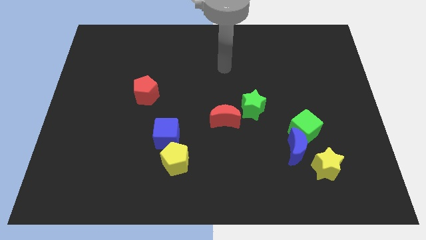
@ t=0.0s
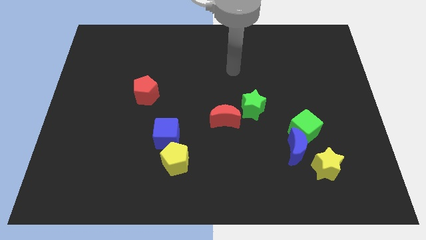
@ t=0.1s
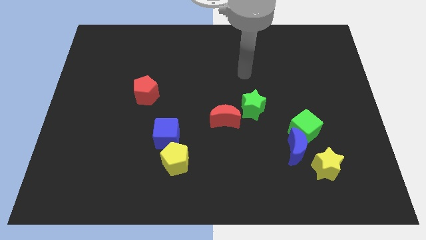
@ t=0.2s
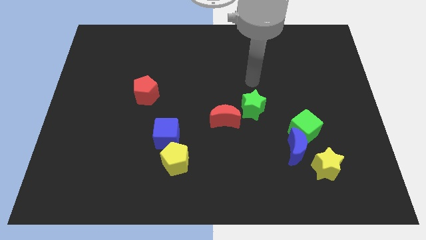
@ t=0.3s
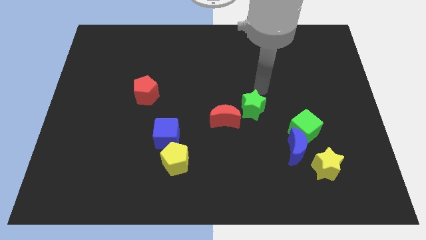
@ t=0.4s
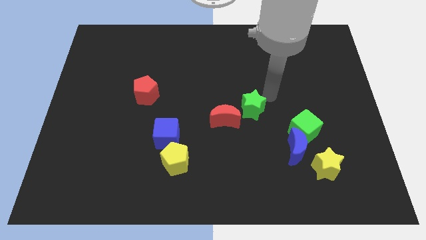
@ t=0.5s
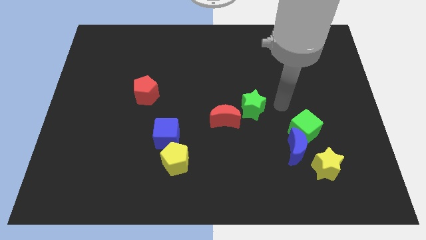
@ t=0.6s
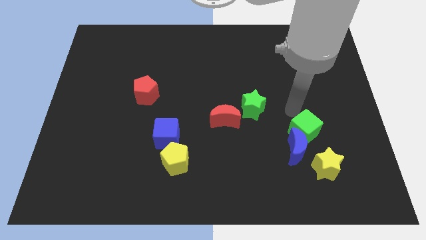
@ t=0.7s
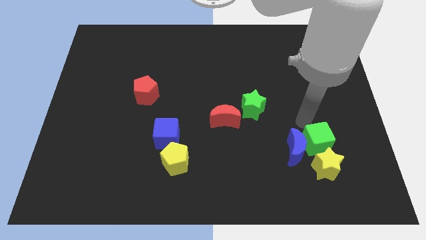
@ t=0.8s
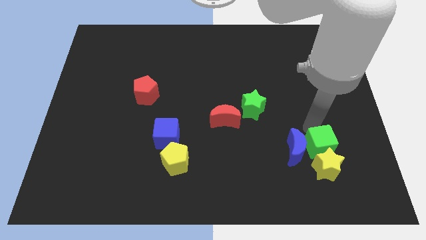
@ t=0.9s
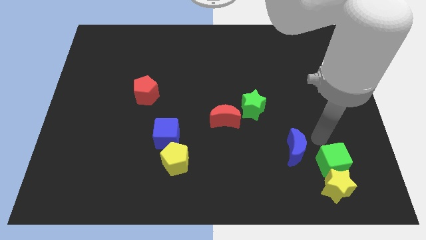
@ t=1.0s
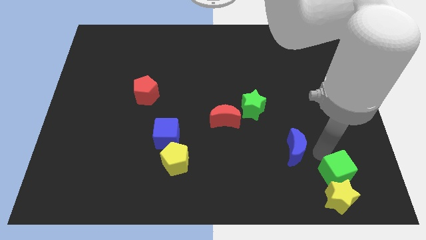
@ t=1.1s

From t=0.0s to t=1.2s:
pull the blue moon apart from the green cube and yellow star

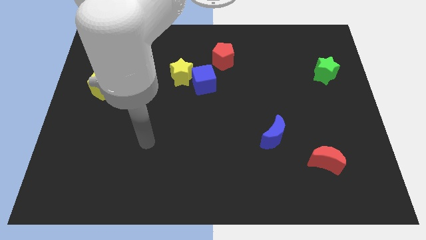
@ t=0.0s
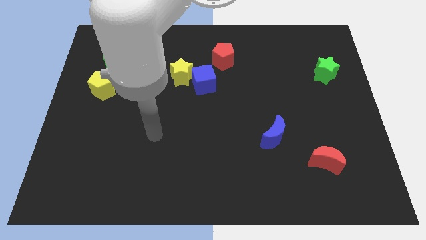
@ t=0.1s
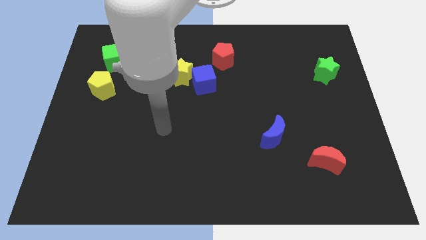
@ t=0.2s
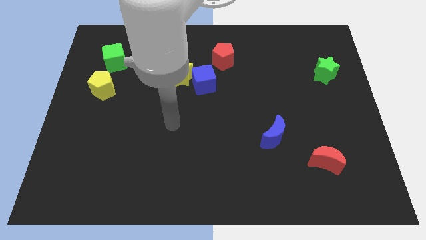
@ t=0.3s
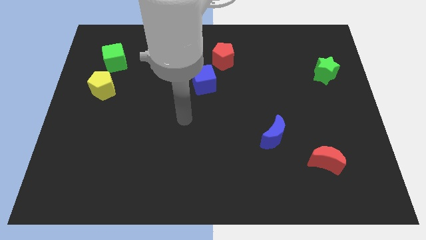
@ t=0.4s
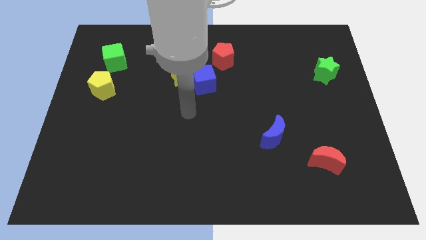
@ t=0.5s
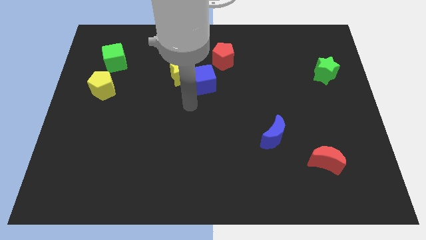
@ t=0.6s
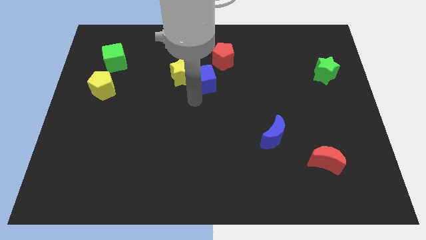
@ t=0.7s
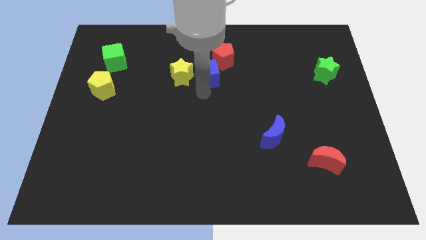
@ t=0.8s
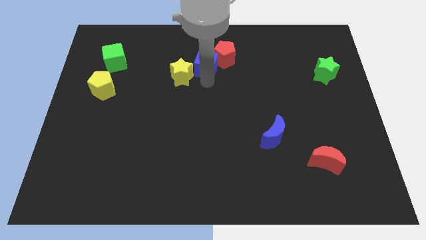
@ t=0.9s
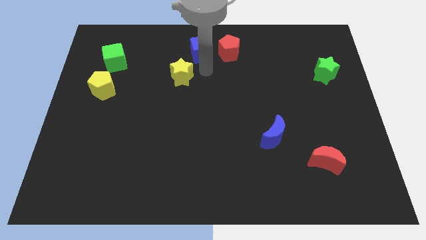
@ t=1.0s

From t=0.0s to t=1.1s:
move the yellow star away from the blue cube

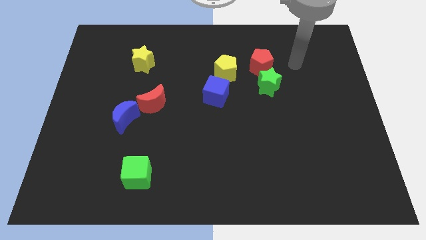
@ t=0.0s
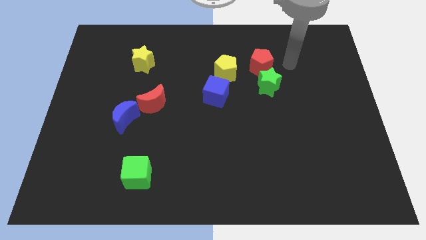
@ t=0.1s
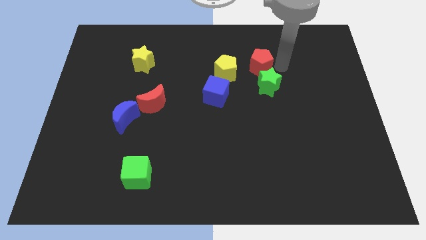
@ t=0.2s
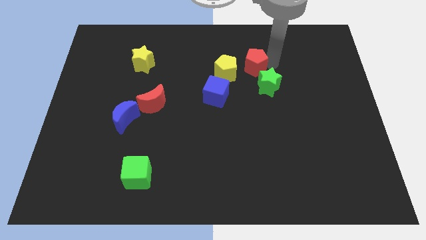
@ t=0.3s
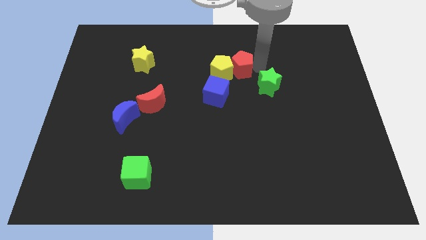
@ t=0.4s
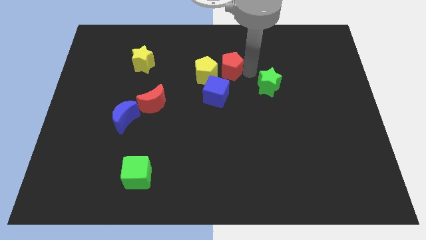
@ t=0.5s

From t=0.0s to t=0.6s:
separate the green star from the red pentagon

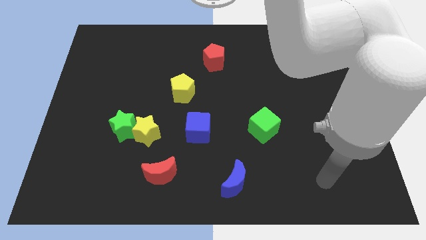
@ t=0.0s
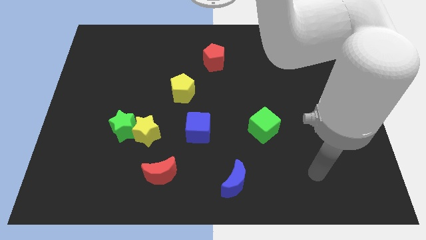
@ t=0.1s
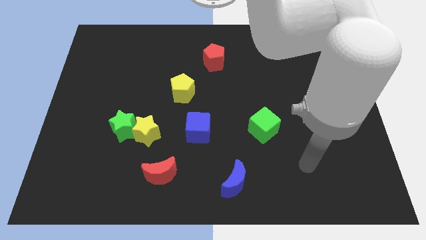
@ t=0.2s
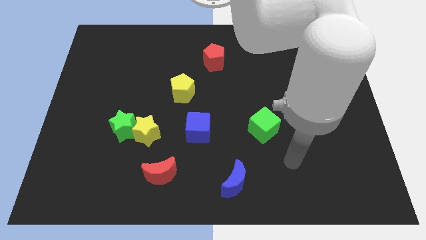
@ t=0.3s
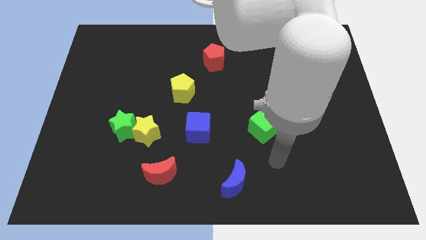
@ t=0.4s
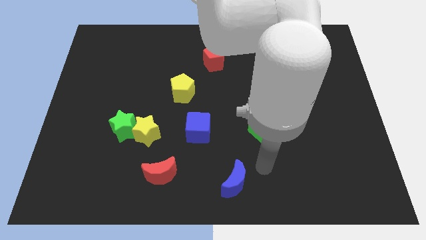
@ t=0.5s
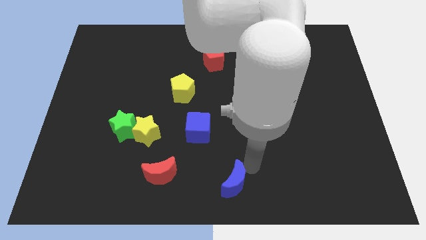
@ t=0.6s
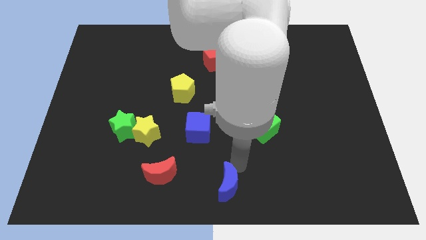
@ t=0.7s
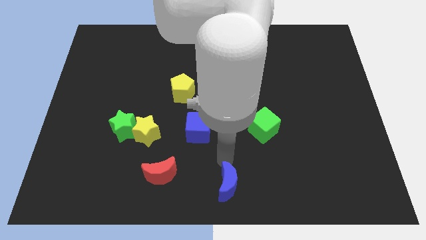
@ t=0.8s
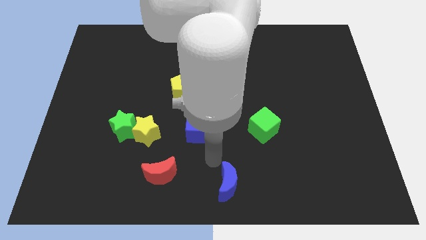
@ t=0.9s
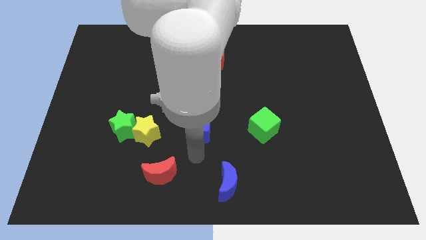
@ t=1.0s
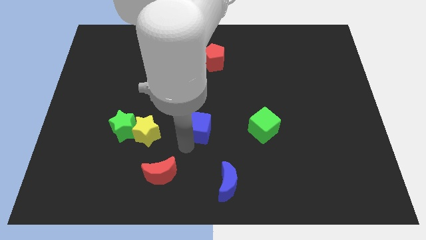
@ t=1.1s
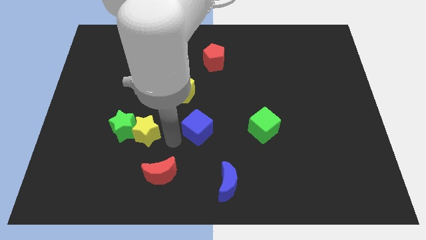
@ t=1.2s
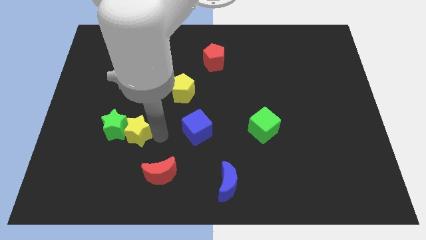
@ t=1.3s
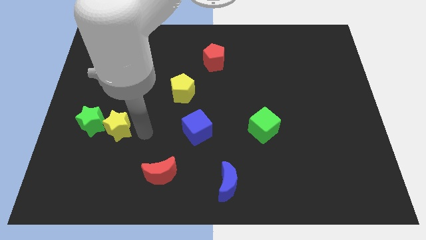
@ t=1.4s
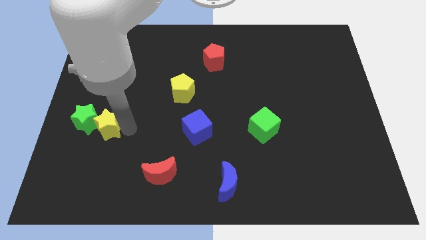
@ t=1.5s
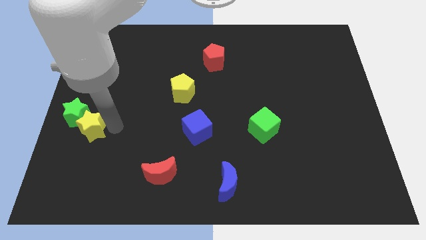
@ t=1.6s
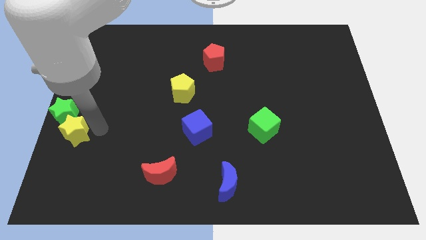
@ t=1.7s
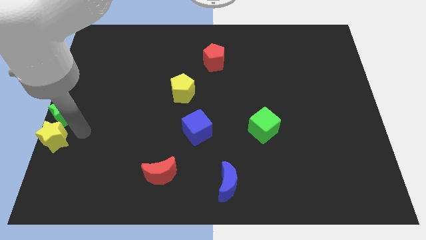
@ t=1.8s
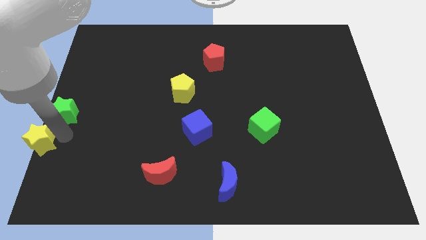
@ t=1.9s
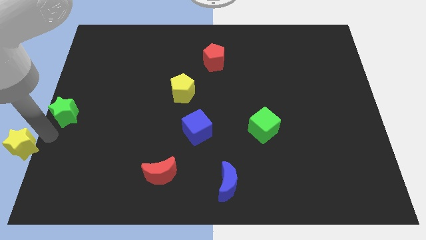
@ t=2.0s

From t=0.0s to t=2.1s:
separate the green star from the yellow star

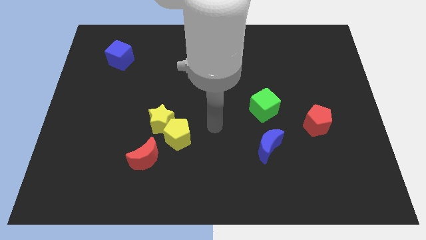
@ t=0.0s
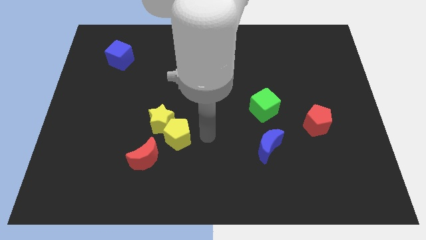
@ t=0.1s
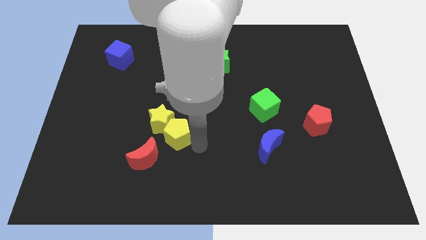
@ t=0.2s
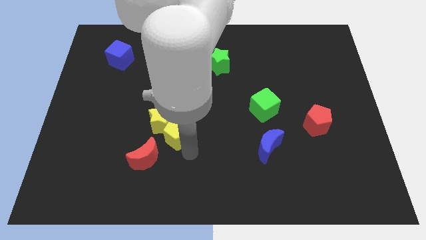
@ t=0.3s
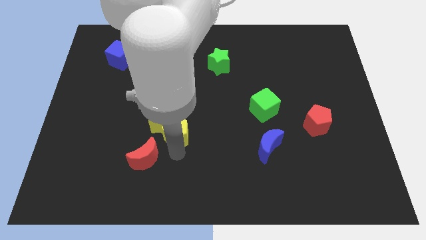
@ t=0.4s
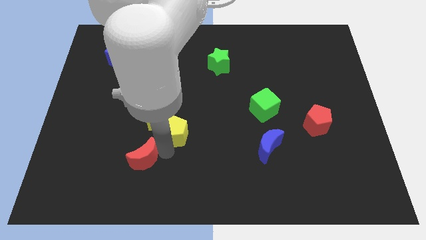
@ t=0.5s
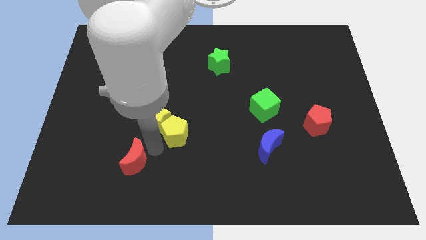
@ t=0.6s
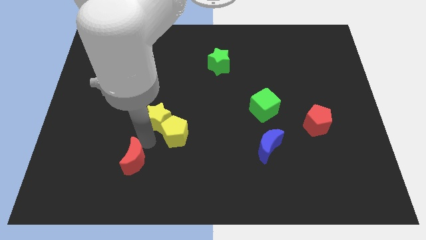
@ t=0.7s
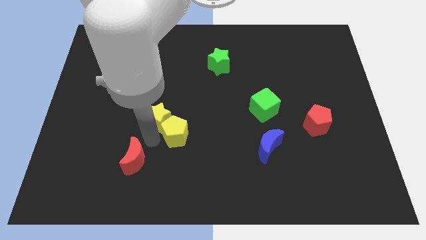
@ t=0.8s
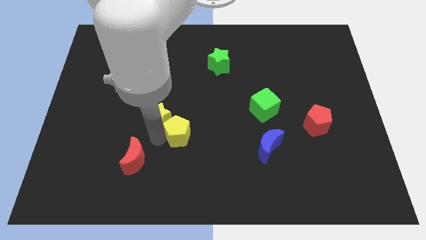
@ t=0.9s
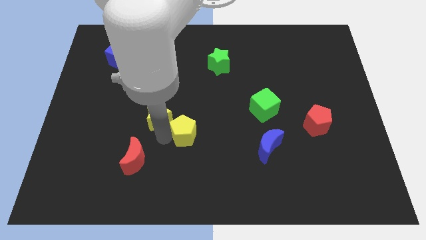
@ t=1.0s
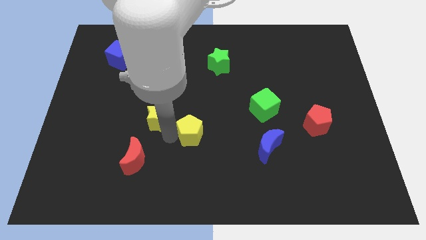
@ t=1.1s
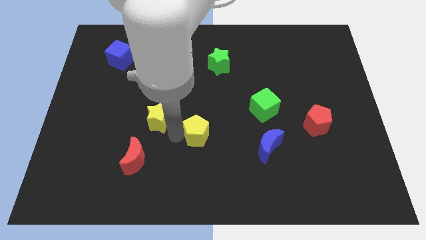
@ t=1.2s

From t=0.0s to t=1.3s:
pull the yellow pentagon apart from the yellow star and red moon

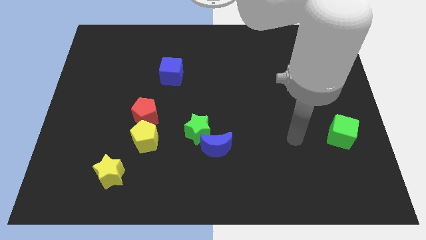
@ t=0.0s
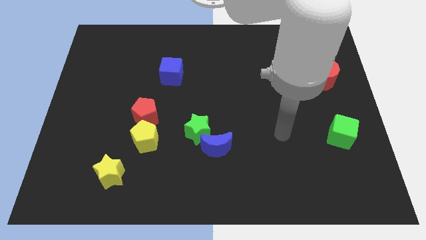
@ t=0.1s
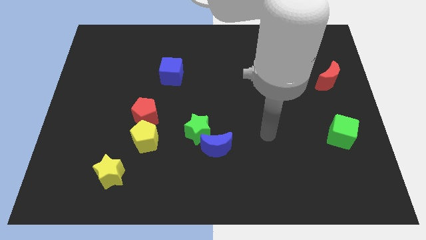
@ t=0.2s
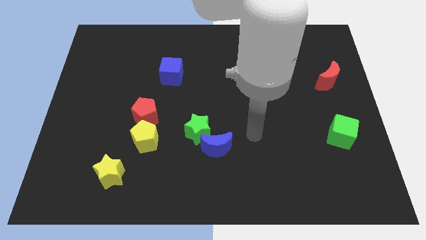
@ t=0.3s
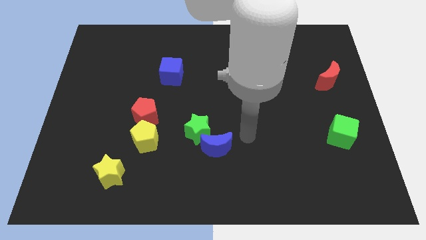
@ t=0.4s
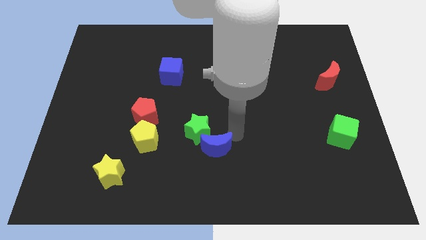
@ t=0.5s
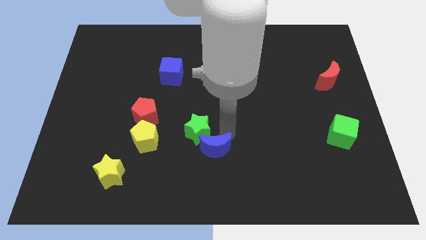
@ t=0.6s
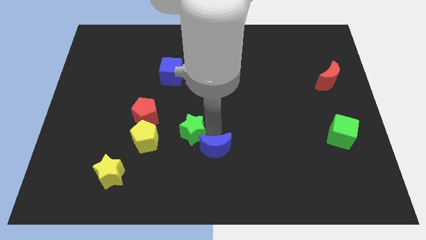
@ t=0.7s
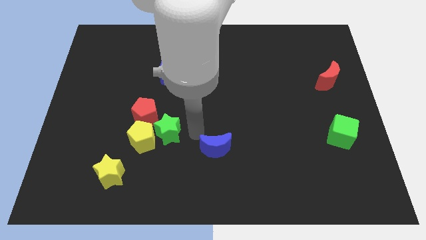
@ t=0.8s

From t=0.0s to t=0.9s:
separate the blue moon from the green star

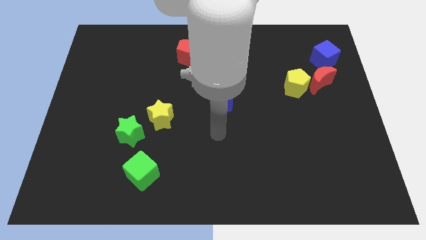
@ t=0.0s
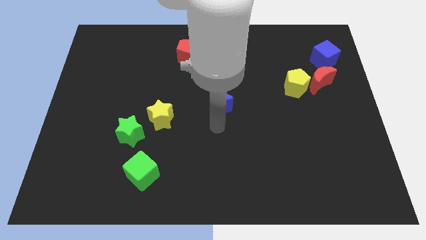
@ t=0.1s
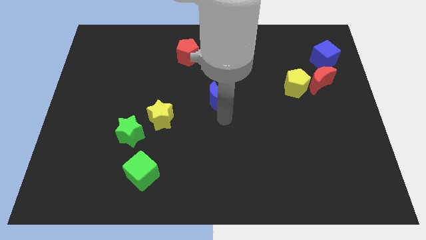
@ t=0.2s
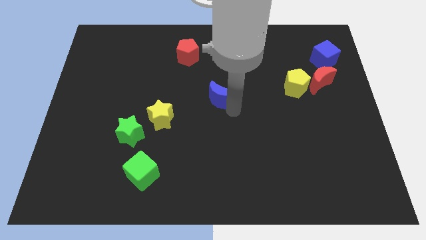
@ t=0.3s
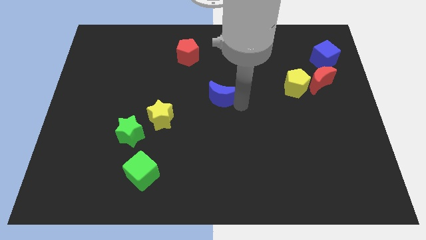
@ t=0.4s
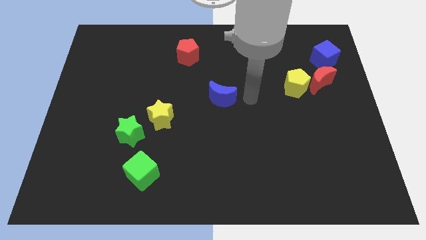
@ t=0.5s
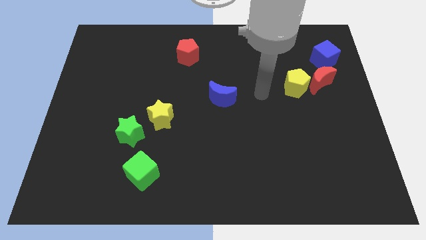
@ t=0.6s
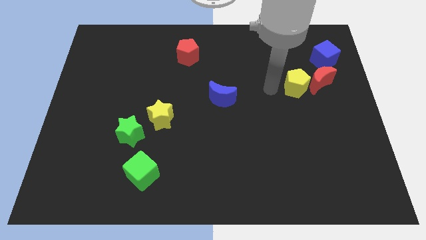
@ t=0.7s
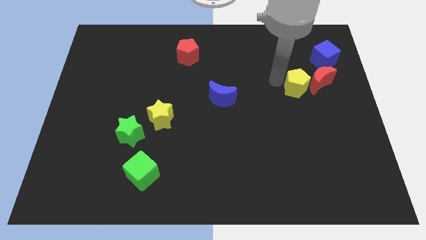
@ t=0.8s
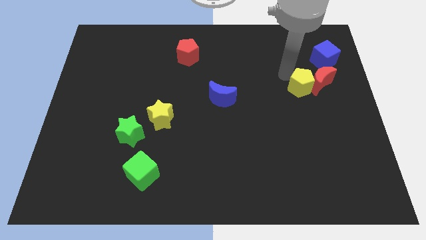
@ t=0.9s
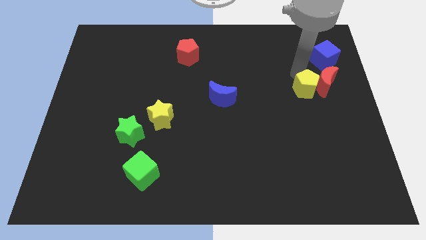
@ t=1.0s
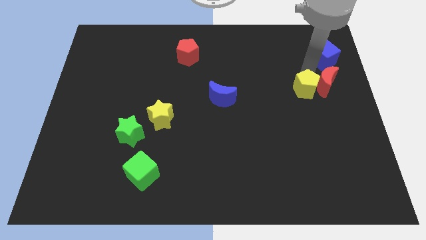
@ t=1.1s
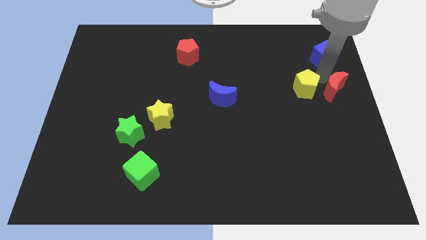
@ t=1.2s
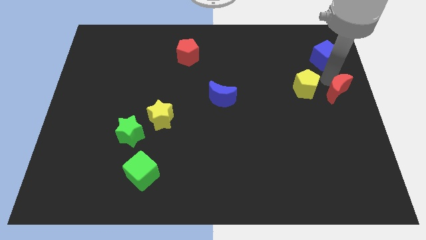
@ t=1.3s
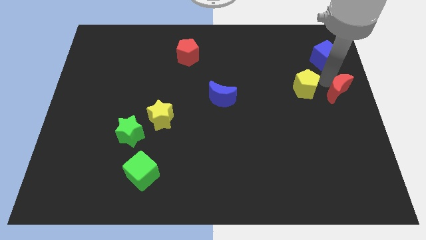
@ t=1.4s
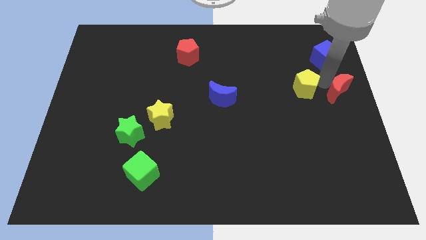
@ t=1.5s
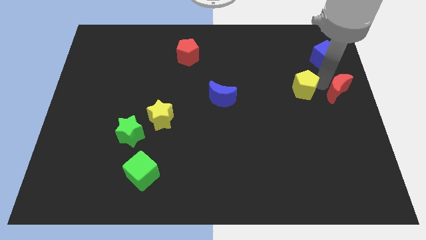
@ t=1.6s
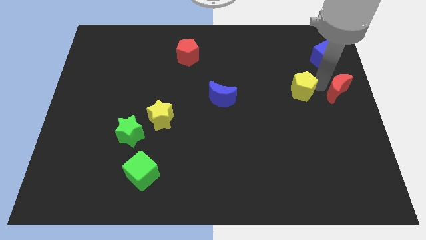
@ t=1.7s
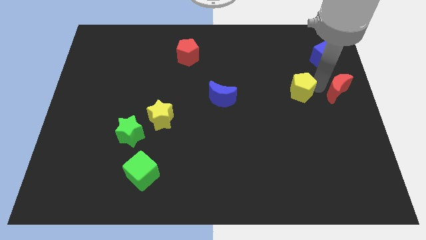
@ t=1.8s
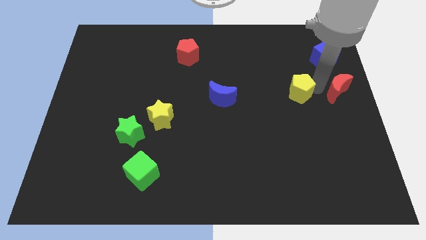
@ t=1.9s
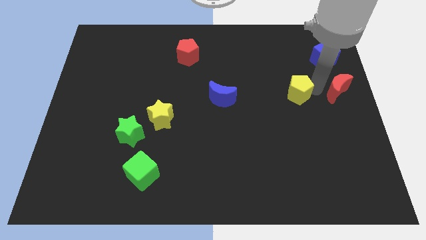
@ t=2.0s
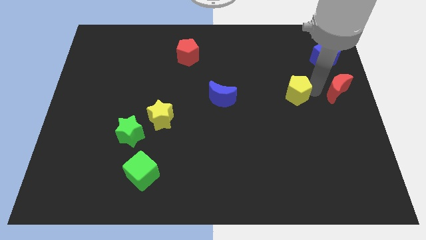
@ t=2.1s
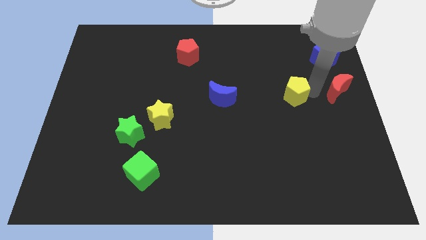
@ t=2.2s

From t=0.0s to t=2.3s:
pull the yellow pentagon apart from the red moon
